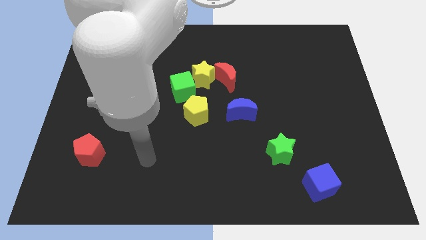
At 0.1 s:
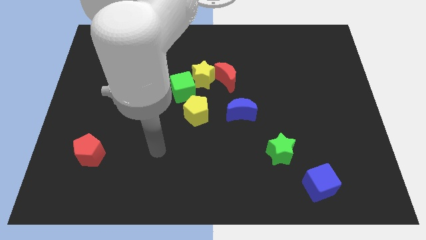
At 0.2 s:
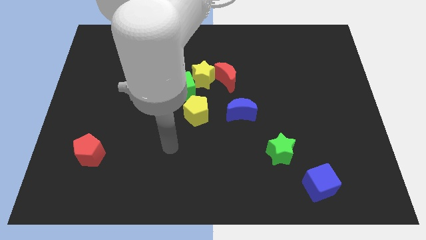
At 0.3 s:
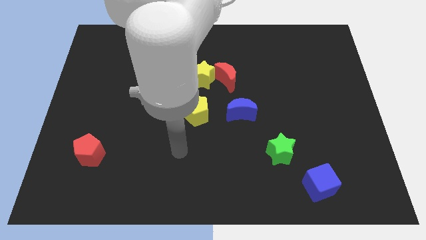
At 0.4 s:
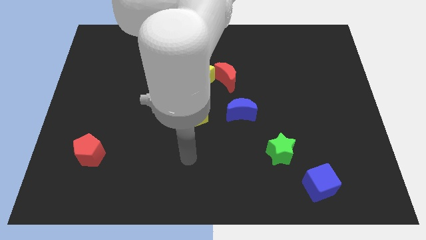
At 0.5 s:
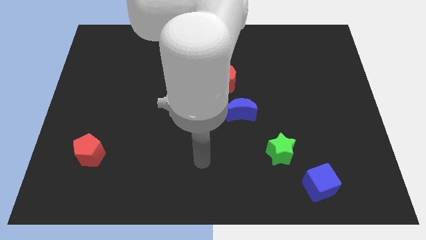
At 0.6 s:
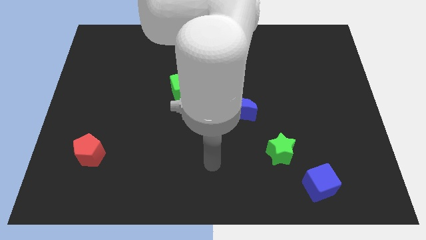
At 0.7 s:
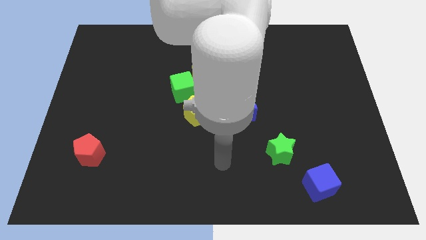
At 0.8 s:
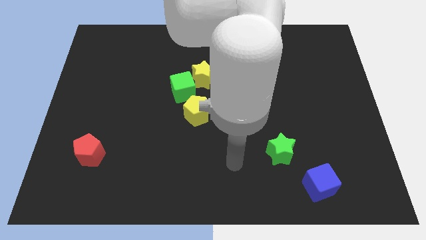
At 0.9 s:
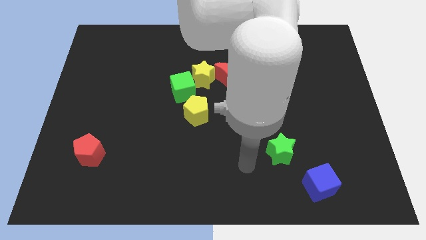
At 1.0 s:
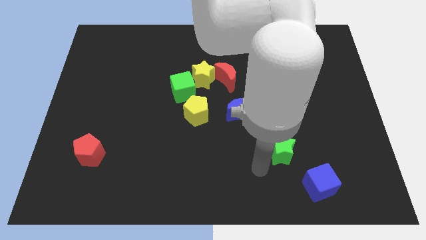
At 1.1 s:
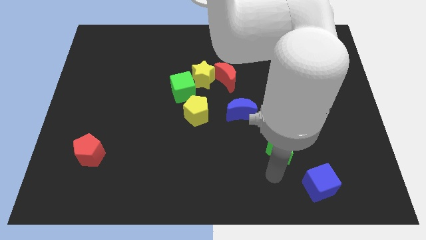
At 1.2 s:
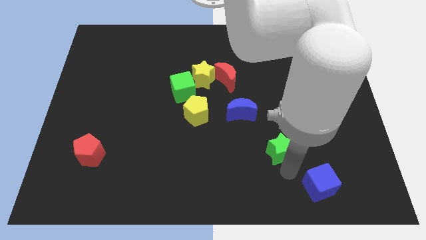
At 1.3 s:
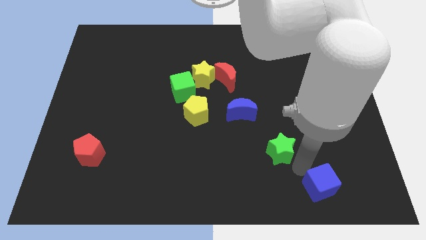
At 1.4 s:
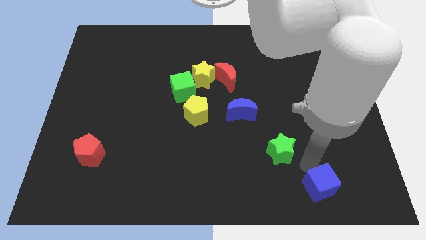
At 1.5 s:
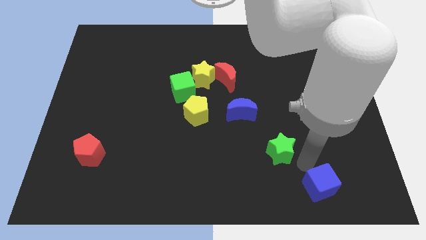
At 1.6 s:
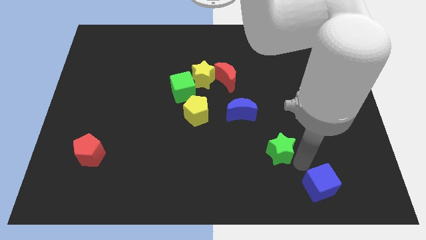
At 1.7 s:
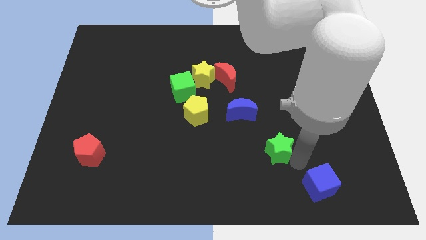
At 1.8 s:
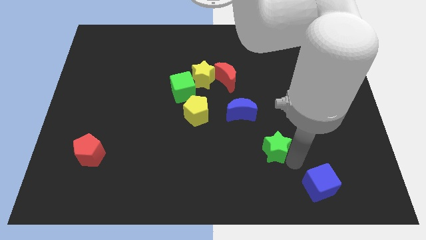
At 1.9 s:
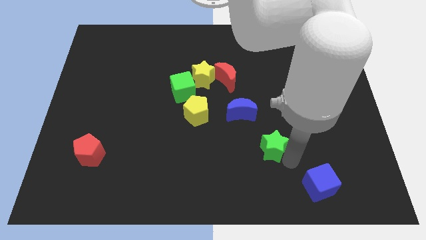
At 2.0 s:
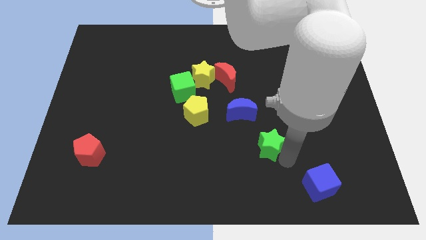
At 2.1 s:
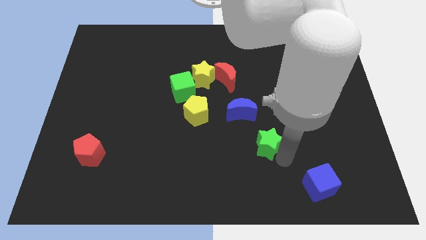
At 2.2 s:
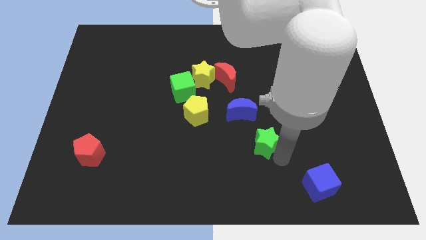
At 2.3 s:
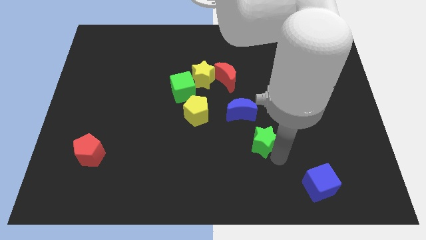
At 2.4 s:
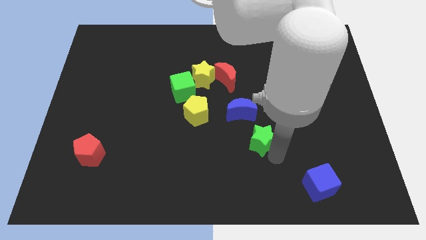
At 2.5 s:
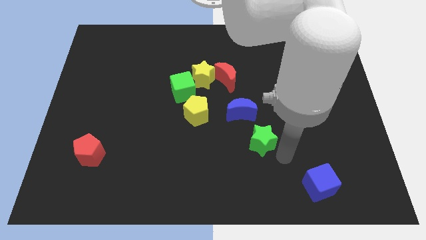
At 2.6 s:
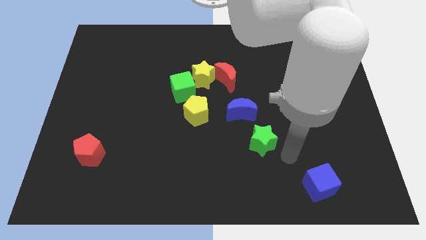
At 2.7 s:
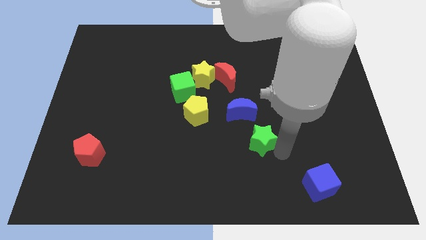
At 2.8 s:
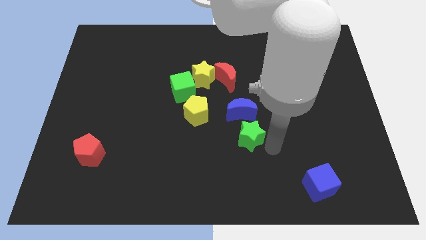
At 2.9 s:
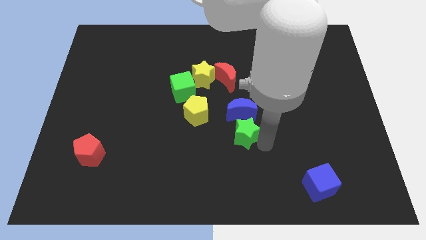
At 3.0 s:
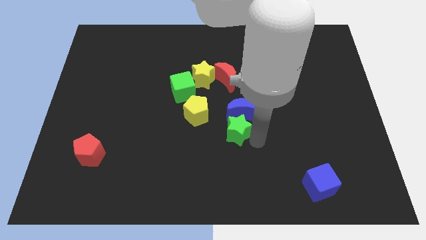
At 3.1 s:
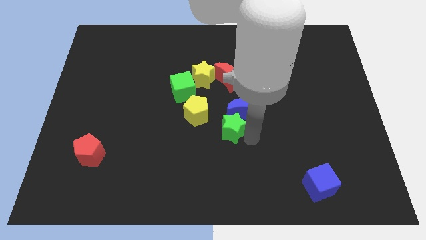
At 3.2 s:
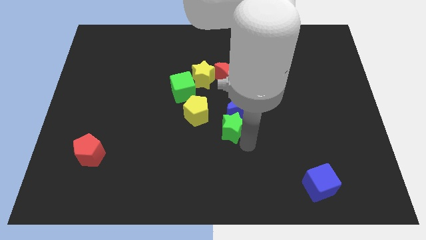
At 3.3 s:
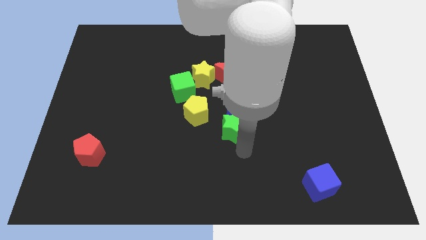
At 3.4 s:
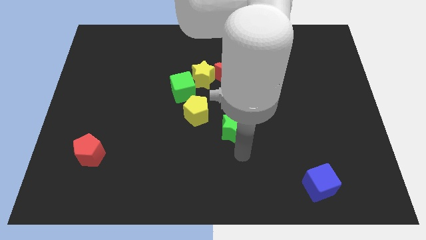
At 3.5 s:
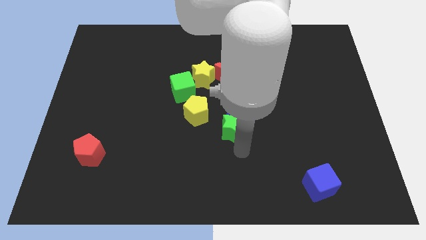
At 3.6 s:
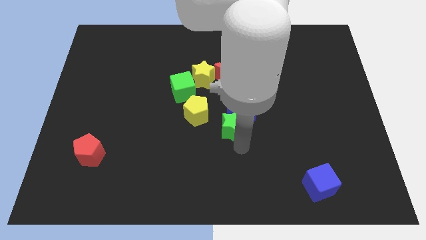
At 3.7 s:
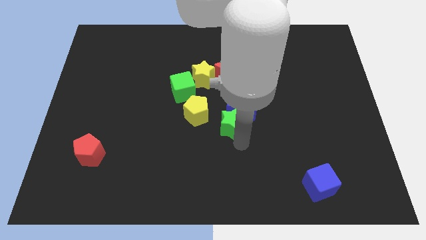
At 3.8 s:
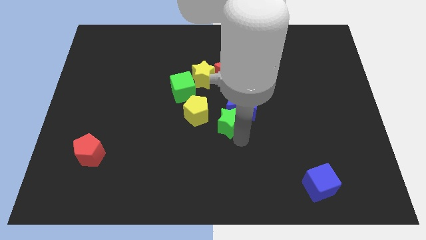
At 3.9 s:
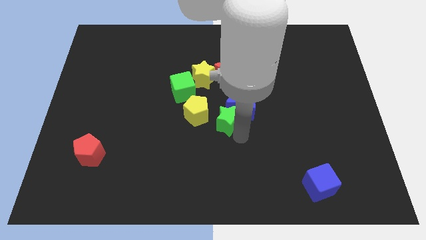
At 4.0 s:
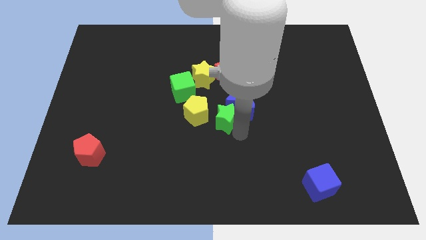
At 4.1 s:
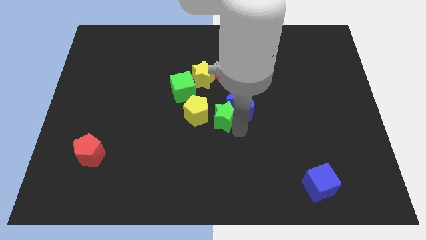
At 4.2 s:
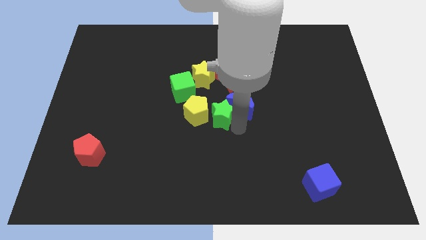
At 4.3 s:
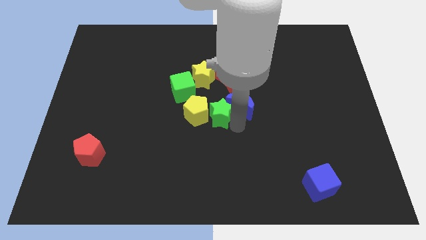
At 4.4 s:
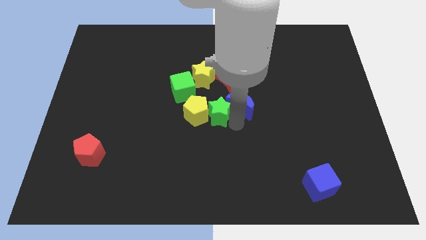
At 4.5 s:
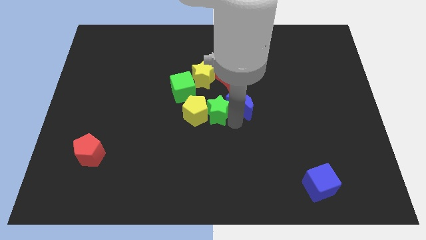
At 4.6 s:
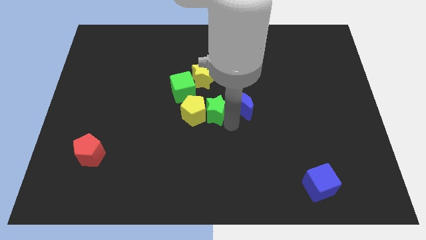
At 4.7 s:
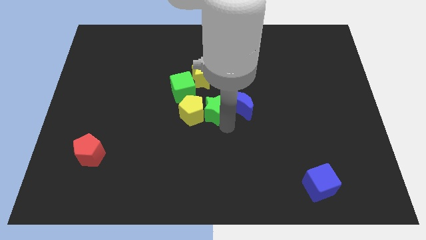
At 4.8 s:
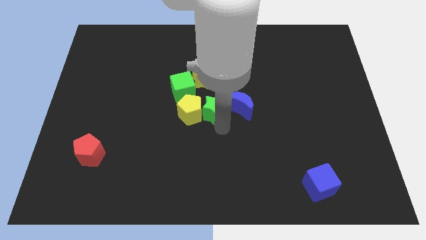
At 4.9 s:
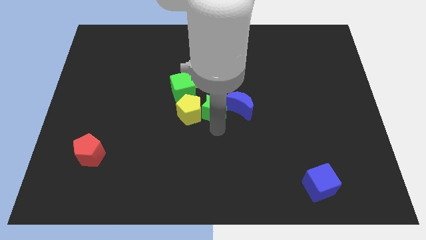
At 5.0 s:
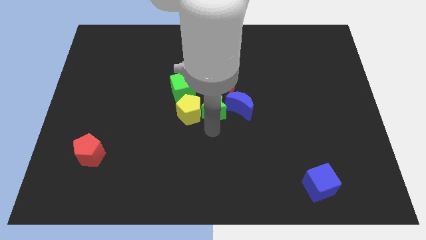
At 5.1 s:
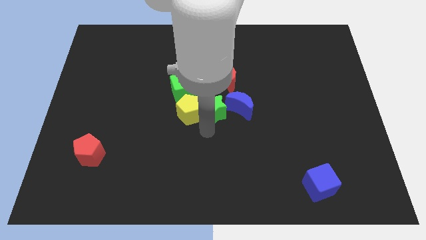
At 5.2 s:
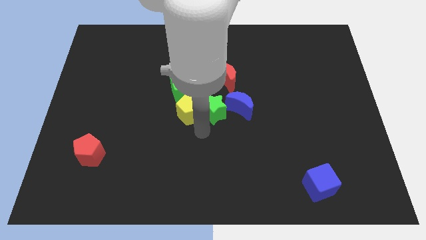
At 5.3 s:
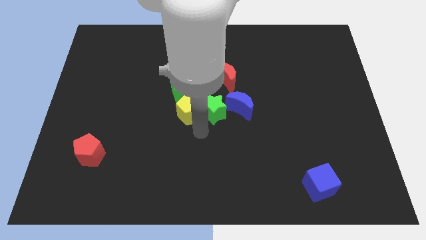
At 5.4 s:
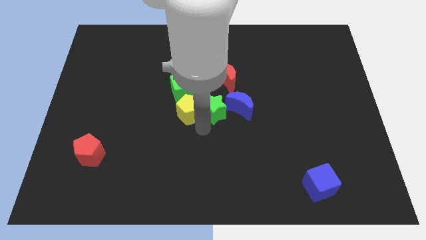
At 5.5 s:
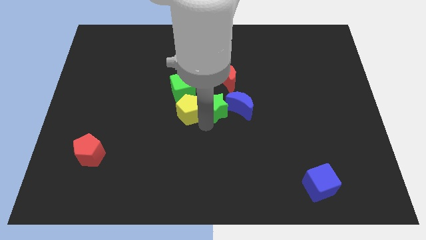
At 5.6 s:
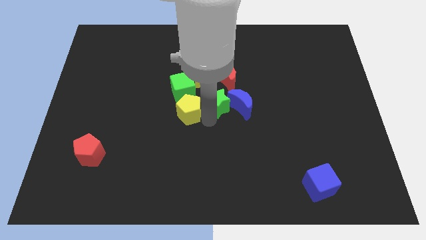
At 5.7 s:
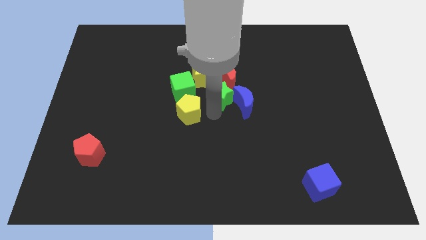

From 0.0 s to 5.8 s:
move the green star towards the red moon

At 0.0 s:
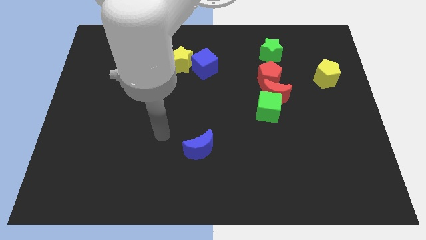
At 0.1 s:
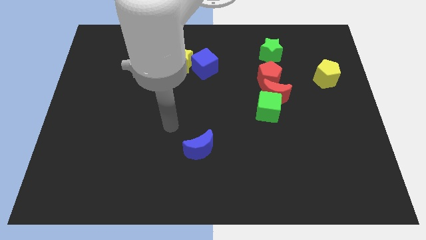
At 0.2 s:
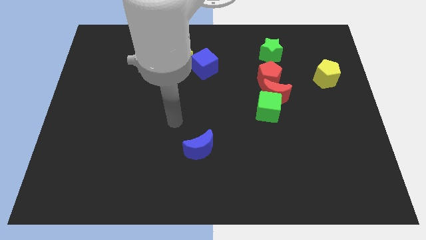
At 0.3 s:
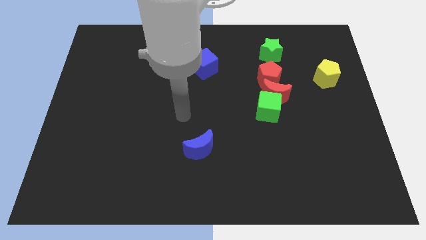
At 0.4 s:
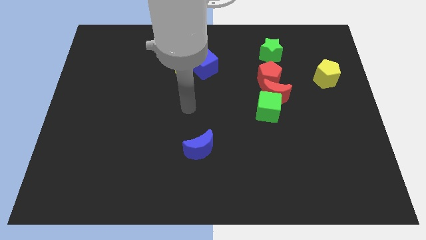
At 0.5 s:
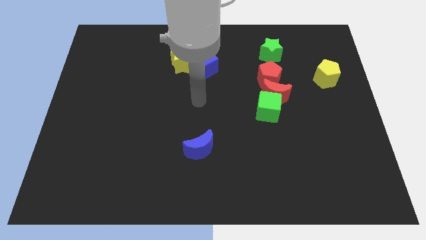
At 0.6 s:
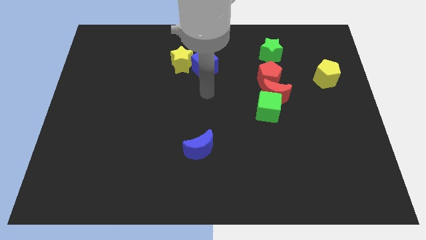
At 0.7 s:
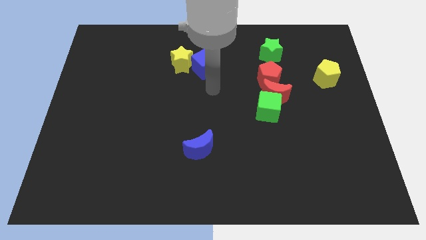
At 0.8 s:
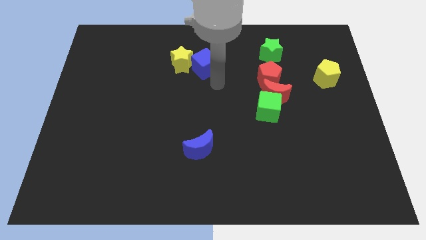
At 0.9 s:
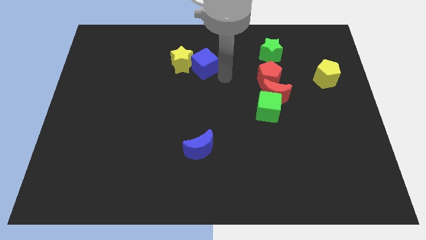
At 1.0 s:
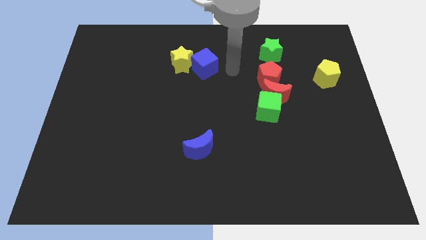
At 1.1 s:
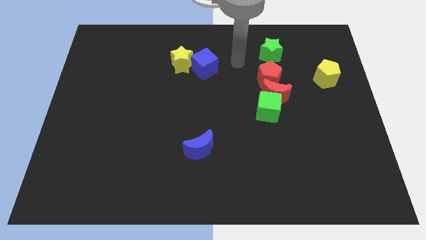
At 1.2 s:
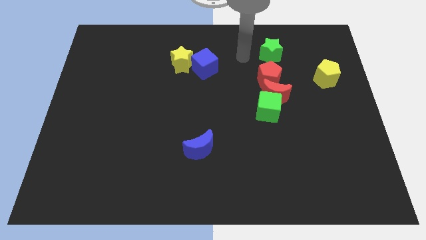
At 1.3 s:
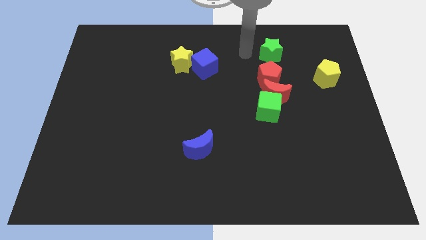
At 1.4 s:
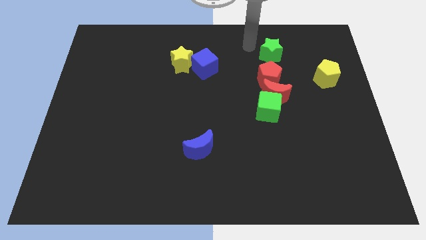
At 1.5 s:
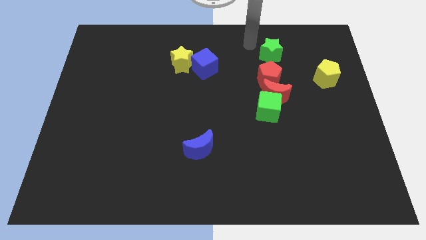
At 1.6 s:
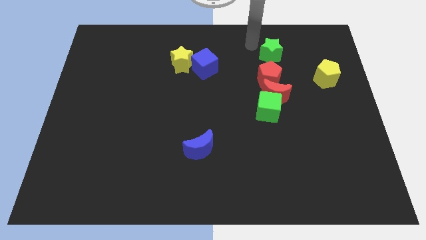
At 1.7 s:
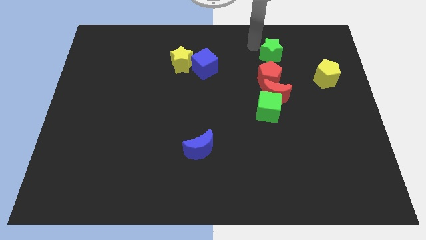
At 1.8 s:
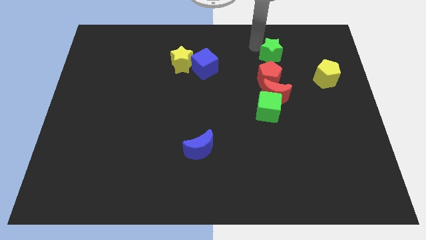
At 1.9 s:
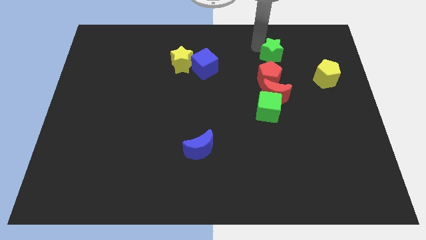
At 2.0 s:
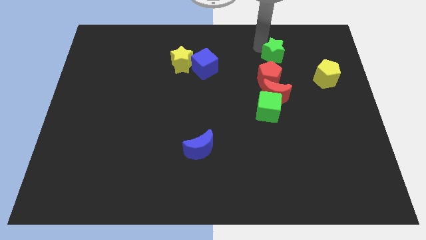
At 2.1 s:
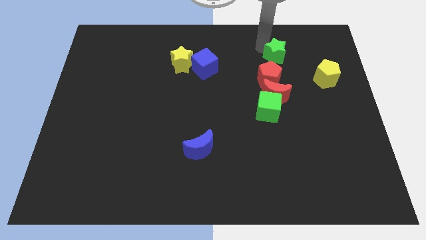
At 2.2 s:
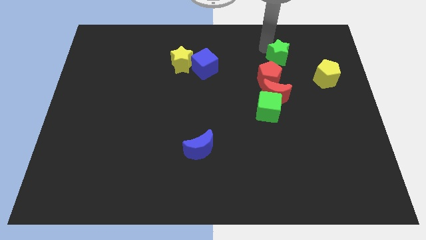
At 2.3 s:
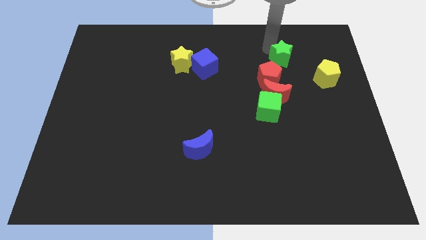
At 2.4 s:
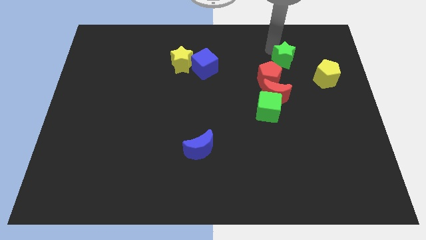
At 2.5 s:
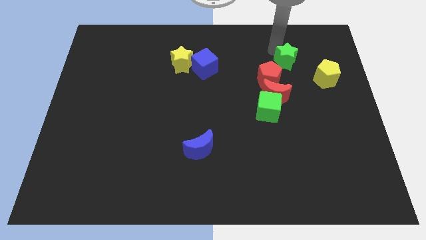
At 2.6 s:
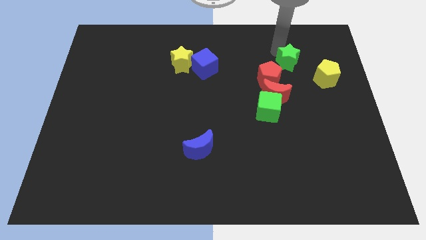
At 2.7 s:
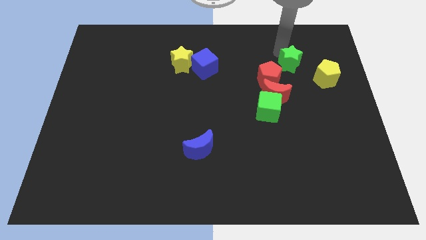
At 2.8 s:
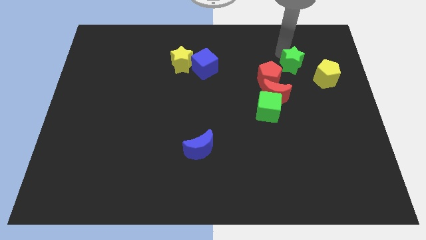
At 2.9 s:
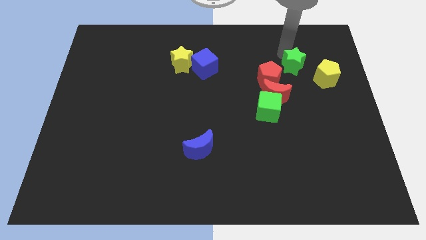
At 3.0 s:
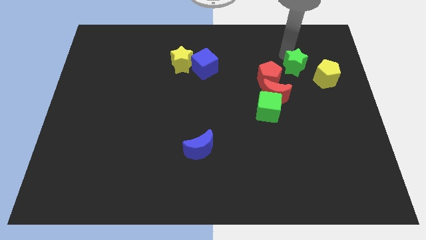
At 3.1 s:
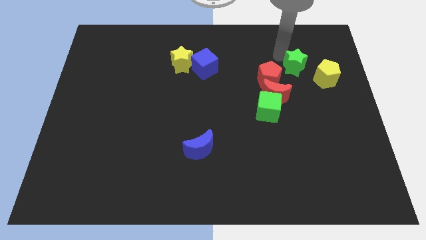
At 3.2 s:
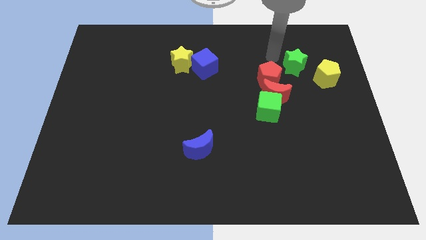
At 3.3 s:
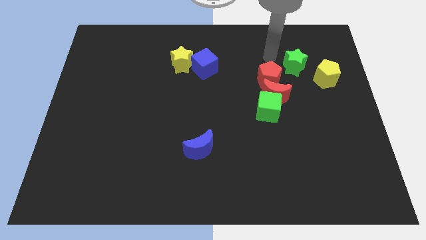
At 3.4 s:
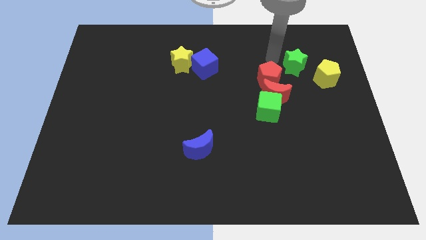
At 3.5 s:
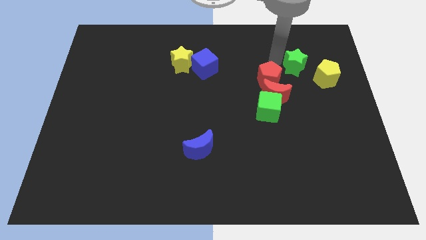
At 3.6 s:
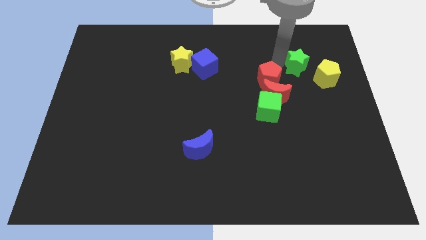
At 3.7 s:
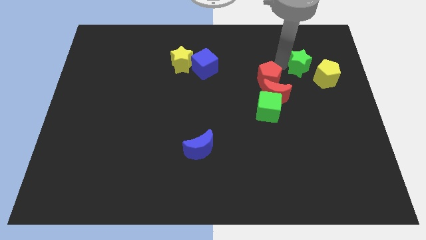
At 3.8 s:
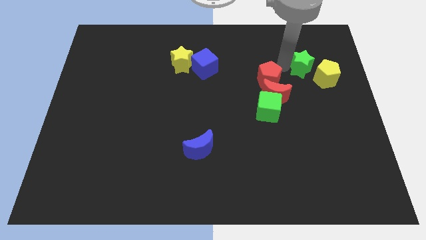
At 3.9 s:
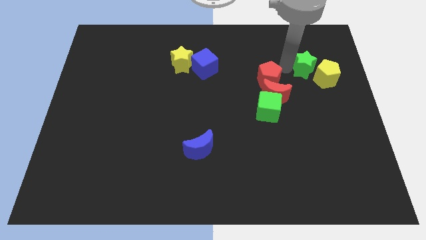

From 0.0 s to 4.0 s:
slide the green star to the yellow pentagon
